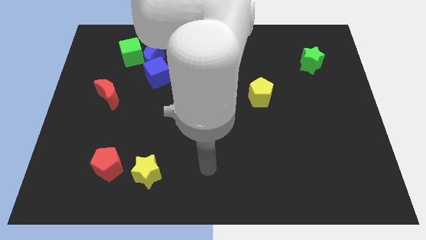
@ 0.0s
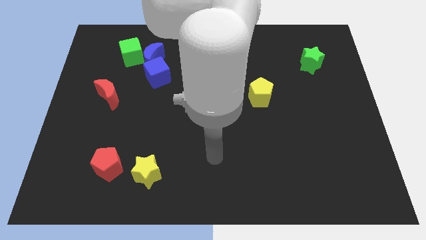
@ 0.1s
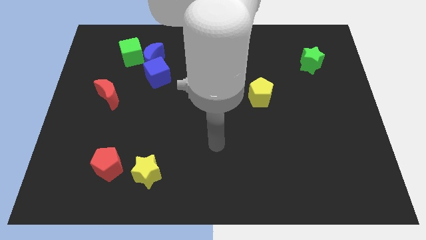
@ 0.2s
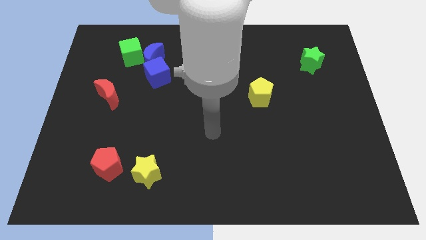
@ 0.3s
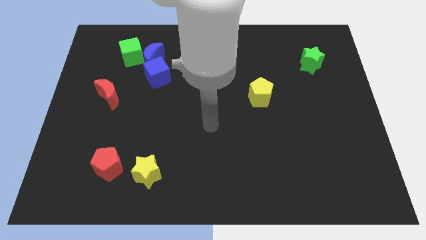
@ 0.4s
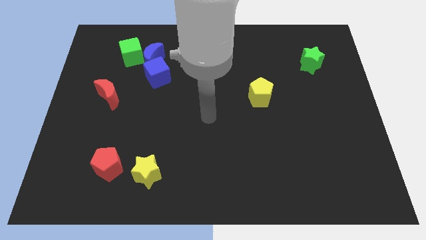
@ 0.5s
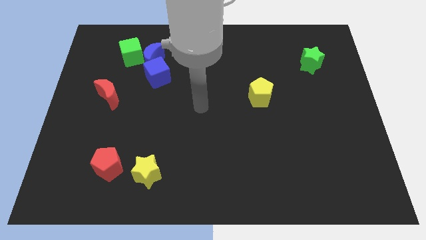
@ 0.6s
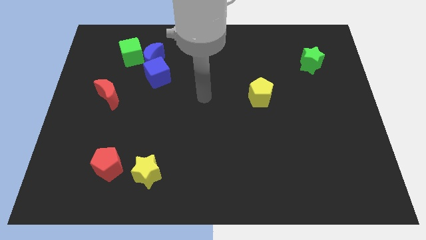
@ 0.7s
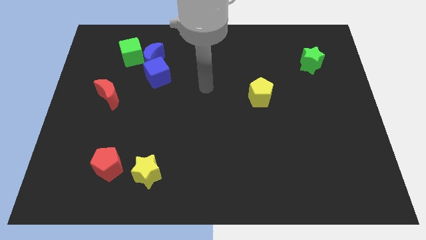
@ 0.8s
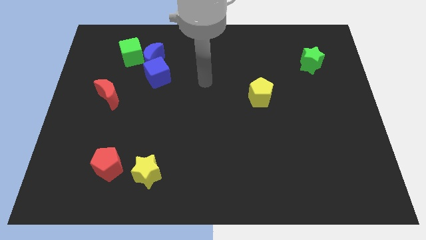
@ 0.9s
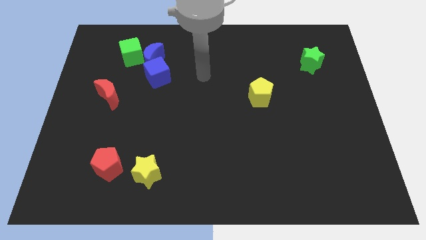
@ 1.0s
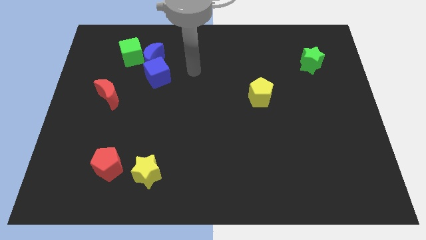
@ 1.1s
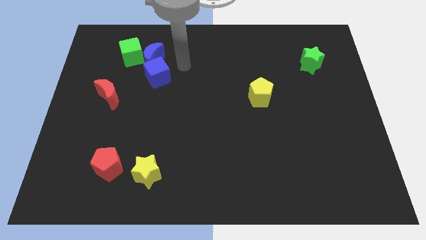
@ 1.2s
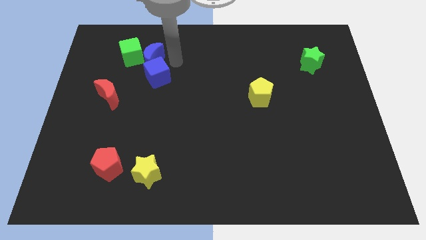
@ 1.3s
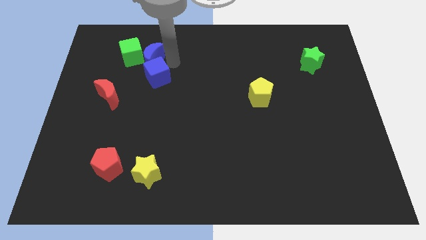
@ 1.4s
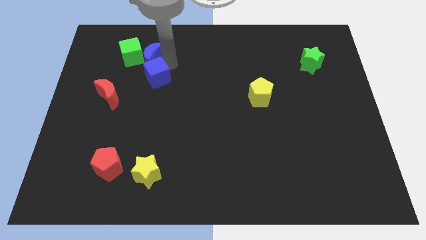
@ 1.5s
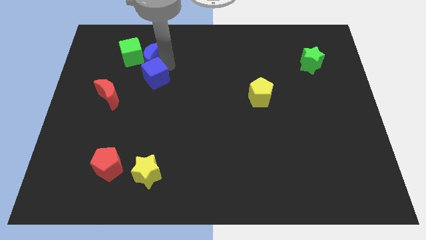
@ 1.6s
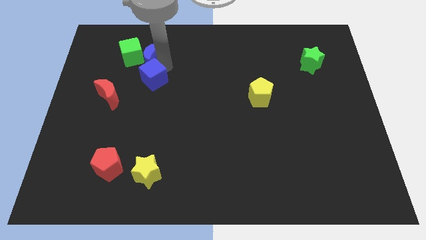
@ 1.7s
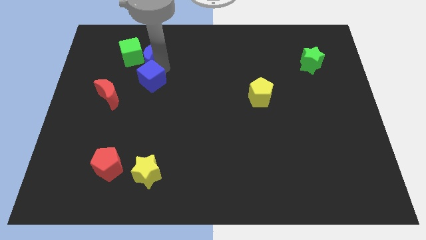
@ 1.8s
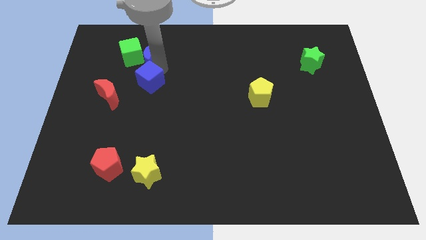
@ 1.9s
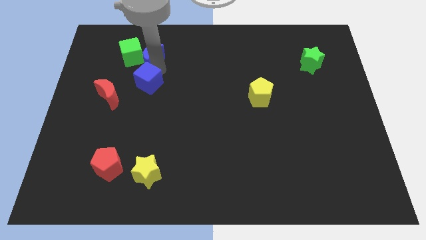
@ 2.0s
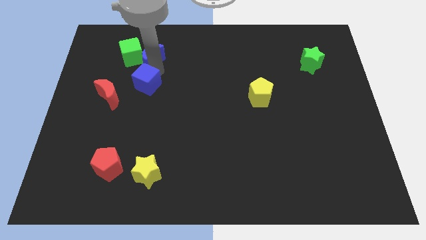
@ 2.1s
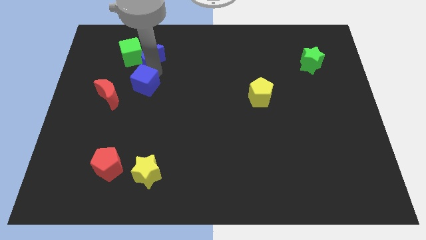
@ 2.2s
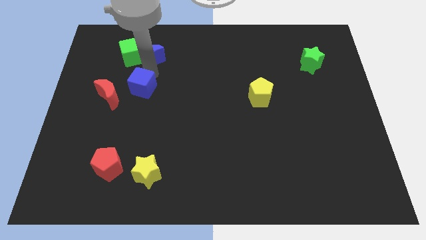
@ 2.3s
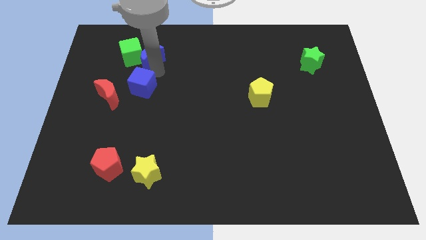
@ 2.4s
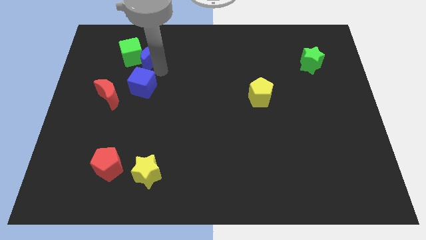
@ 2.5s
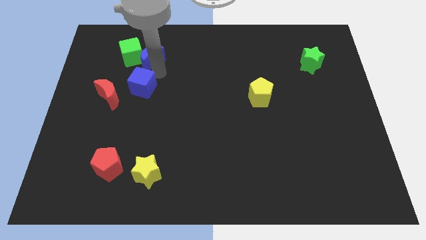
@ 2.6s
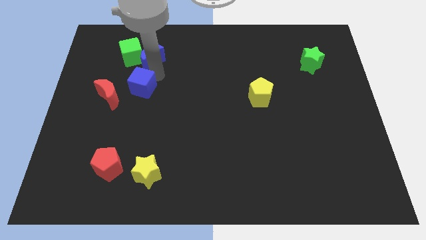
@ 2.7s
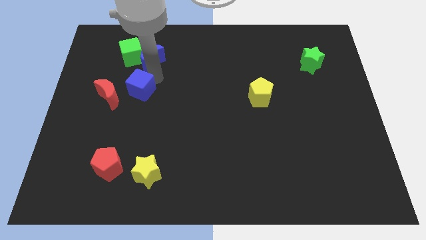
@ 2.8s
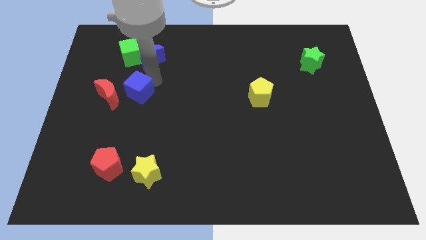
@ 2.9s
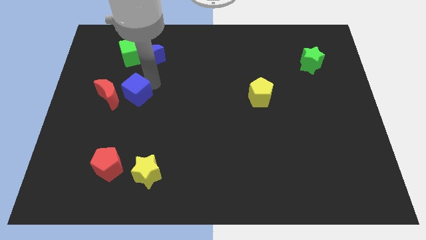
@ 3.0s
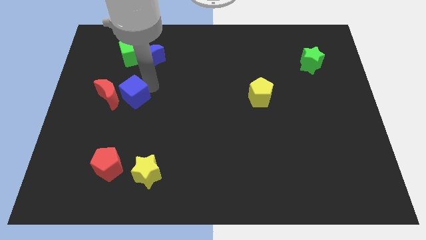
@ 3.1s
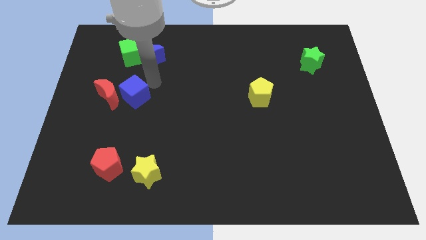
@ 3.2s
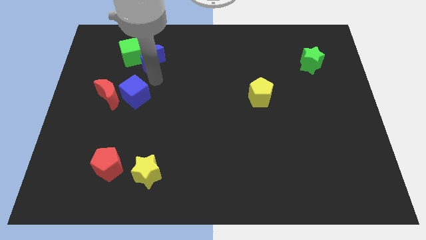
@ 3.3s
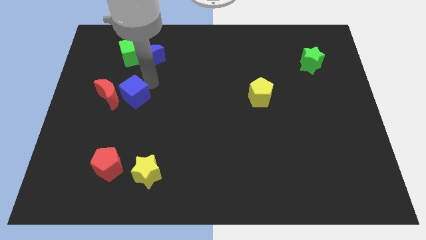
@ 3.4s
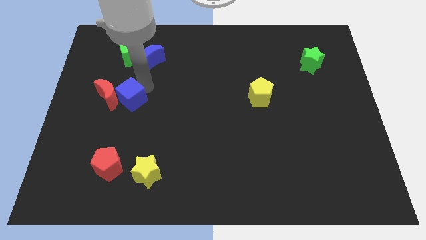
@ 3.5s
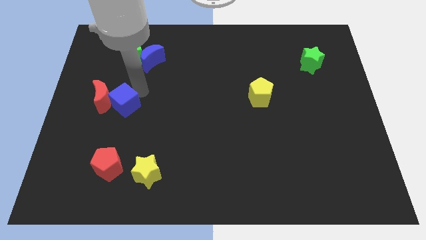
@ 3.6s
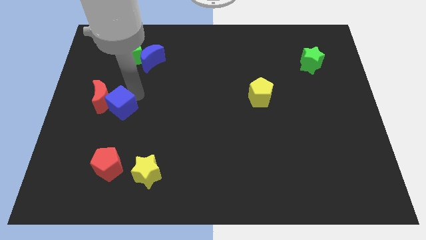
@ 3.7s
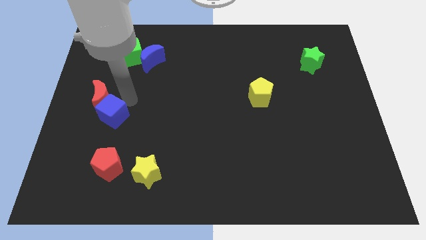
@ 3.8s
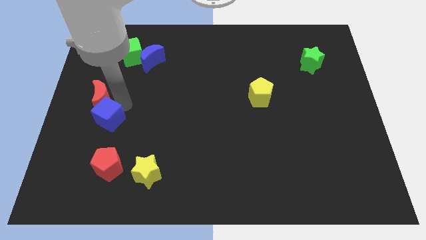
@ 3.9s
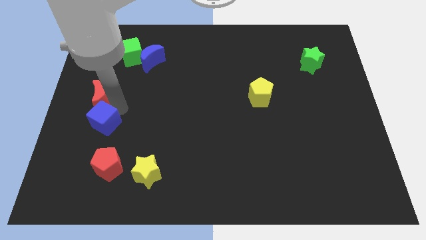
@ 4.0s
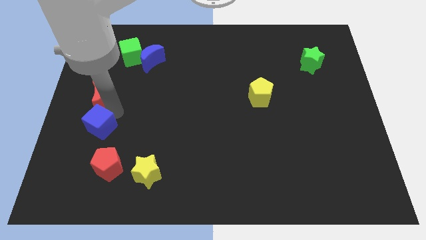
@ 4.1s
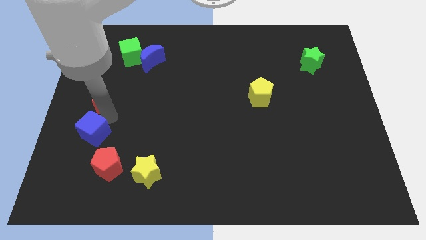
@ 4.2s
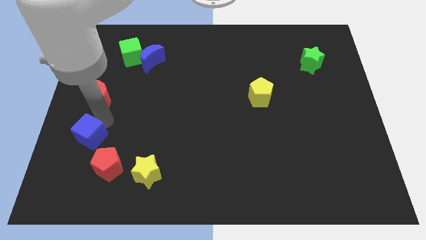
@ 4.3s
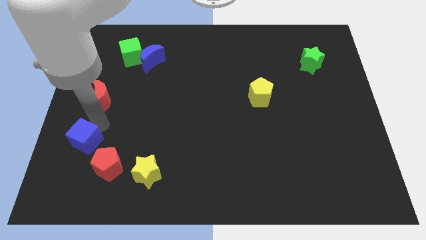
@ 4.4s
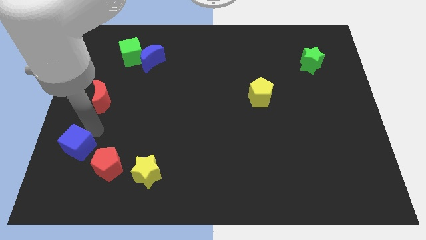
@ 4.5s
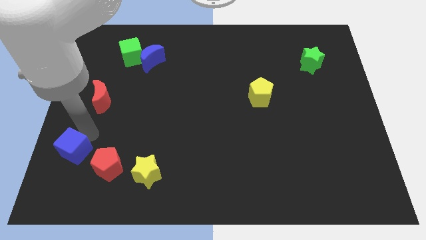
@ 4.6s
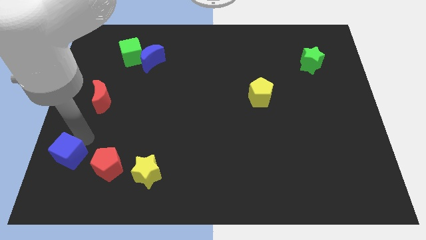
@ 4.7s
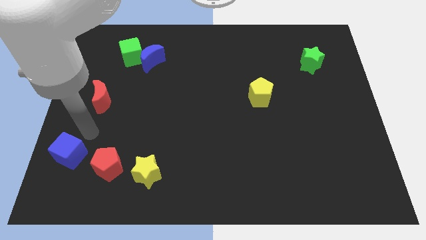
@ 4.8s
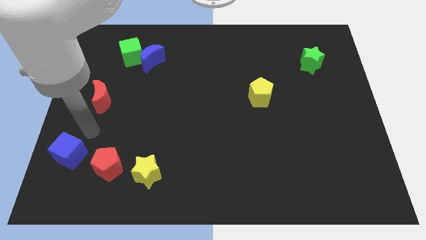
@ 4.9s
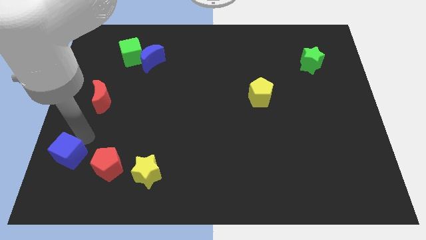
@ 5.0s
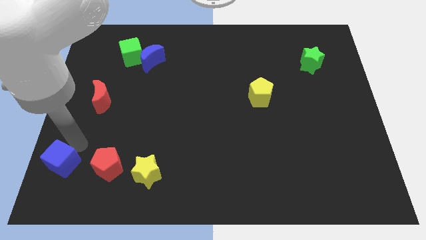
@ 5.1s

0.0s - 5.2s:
slide the blue cube to the bottom left

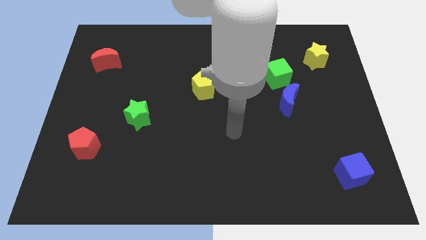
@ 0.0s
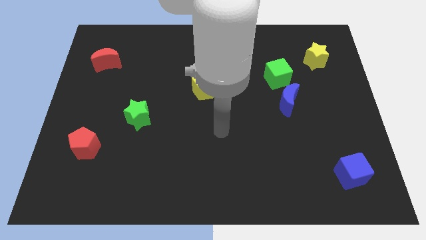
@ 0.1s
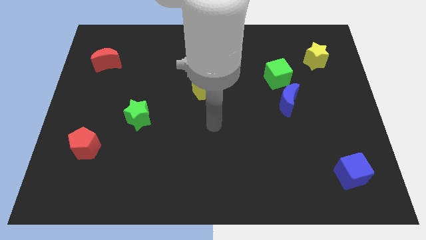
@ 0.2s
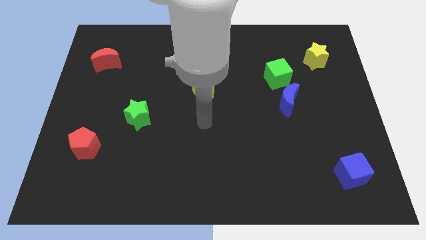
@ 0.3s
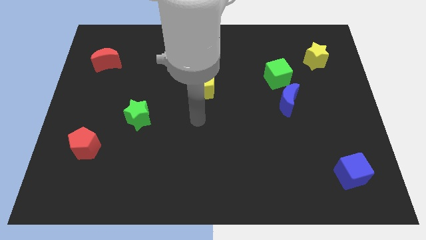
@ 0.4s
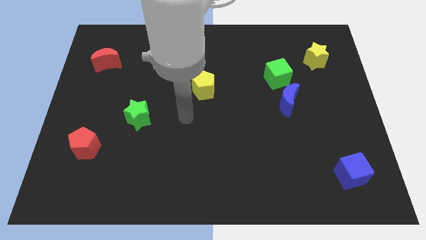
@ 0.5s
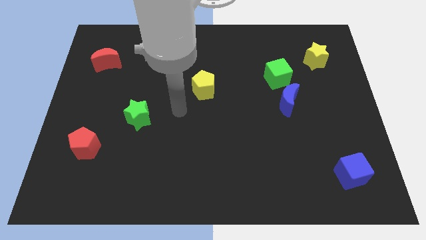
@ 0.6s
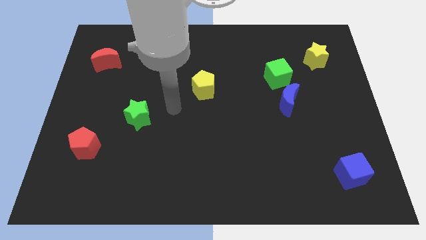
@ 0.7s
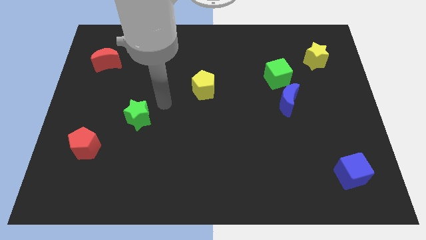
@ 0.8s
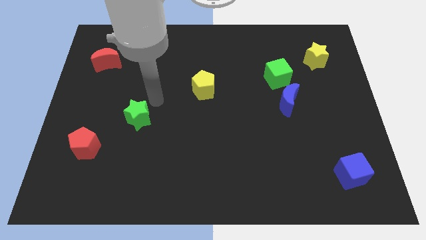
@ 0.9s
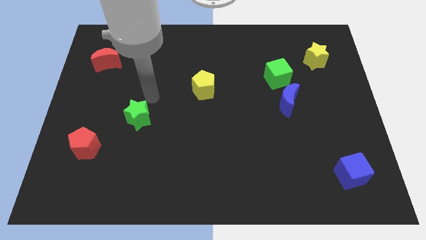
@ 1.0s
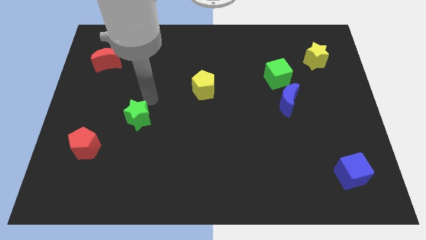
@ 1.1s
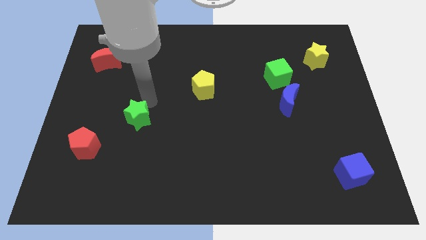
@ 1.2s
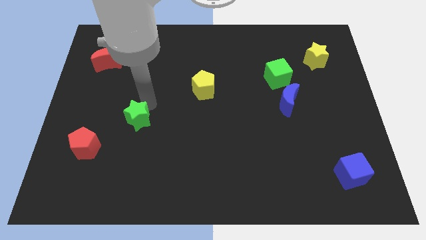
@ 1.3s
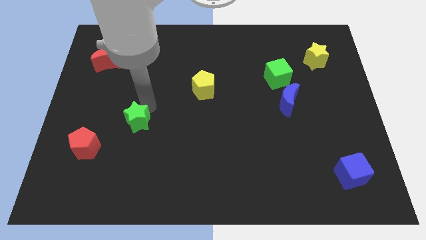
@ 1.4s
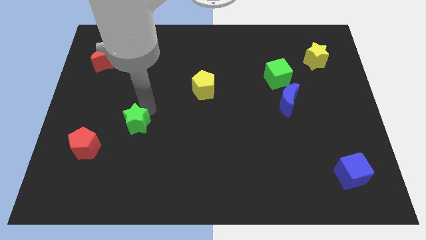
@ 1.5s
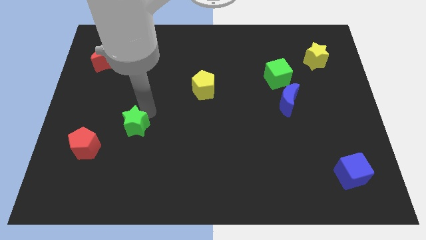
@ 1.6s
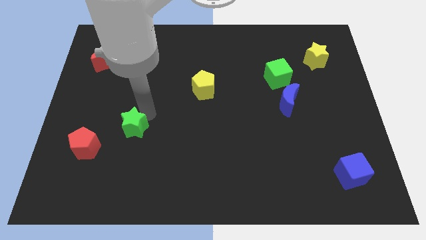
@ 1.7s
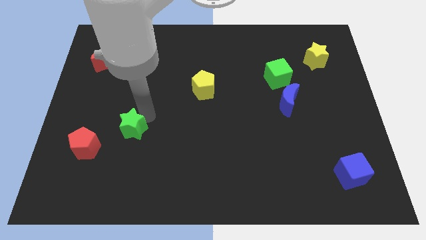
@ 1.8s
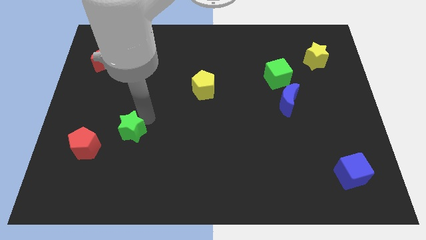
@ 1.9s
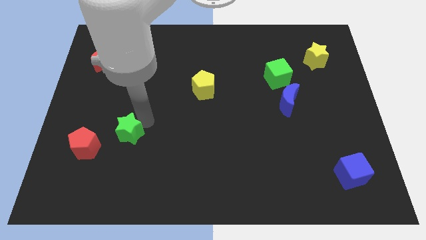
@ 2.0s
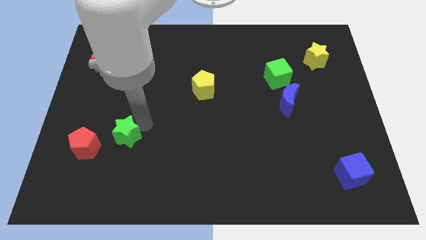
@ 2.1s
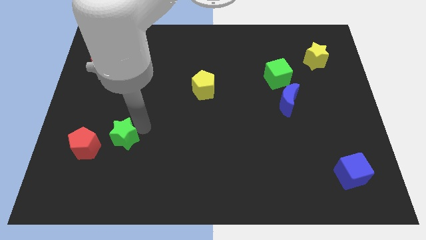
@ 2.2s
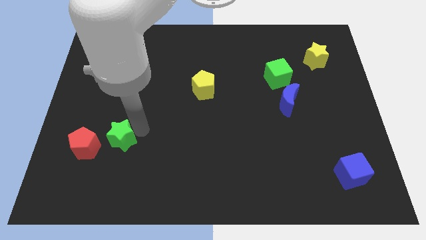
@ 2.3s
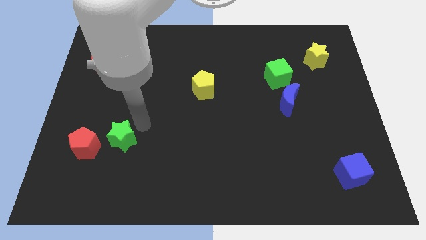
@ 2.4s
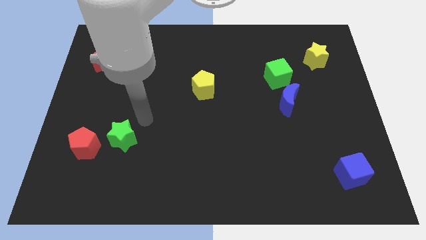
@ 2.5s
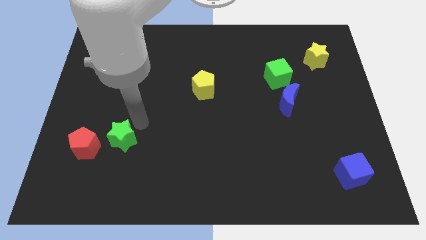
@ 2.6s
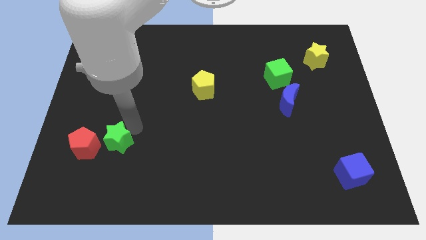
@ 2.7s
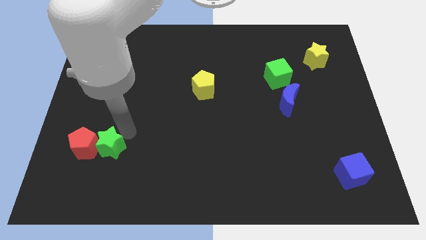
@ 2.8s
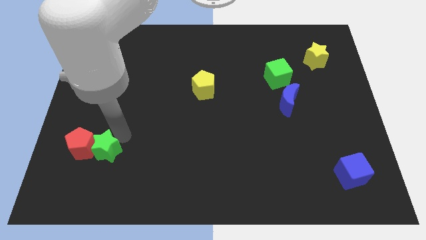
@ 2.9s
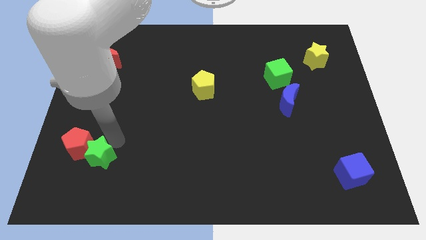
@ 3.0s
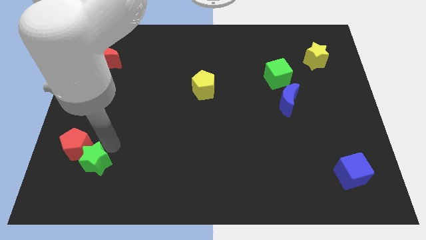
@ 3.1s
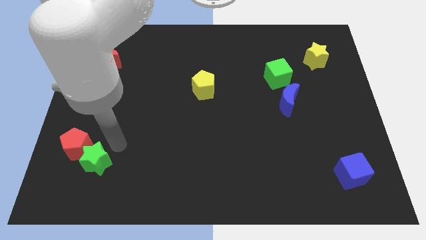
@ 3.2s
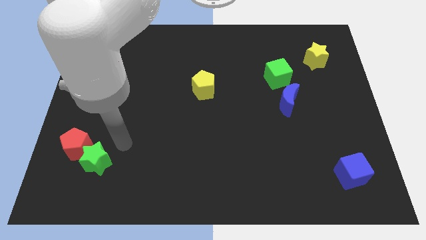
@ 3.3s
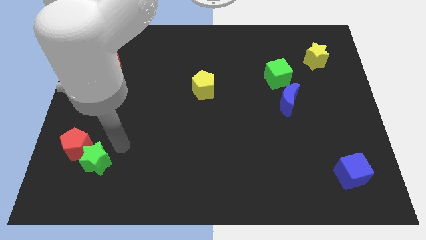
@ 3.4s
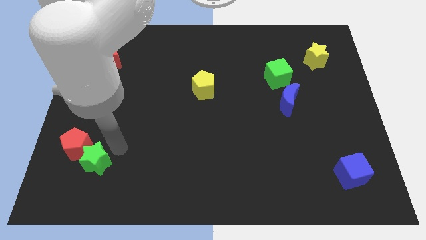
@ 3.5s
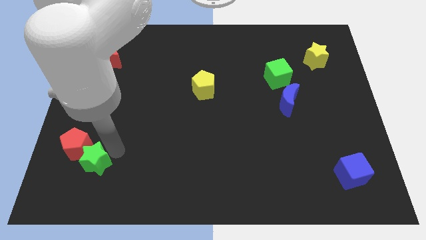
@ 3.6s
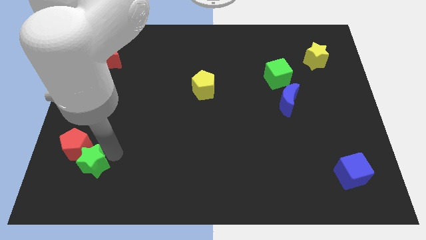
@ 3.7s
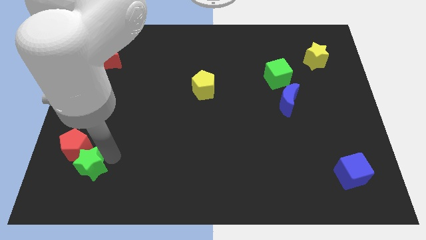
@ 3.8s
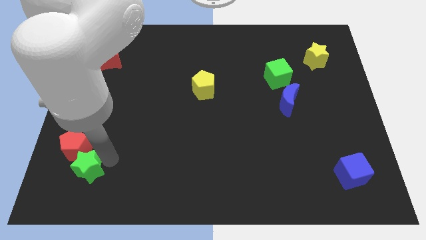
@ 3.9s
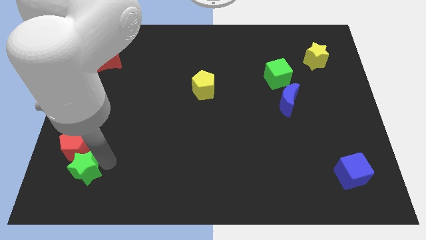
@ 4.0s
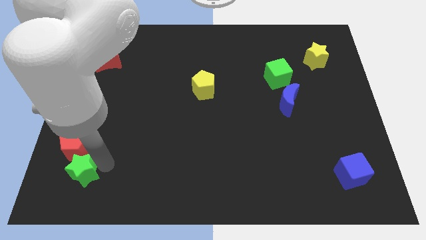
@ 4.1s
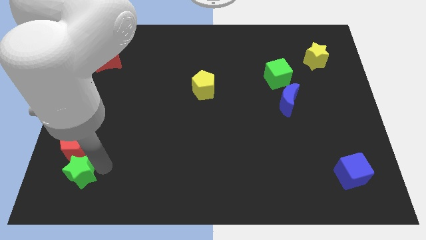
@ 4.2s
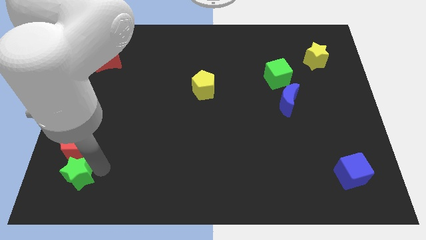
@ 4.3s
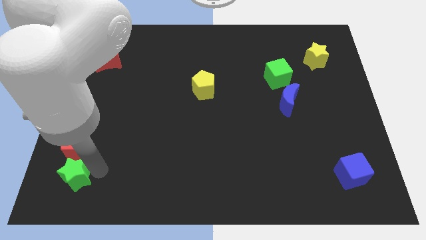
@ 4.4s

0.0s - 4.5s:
slide the green star to the bottom left corner
